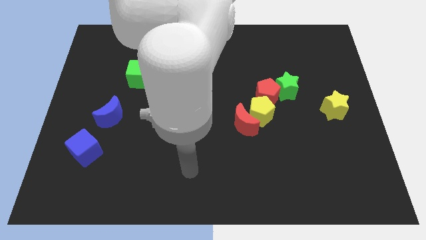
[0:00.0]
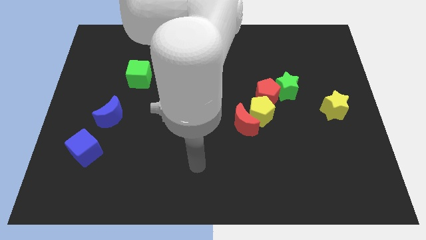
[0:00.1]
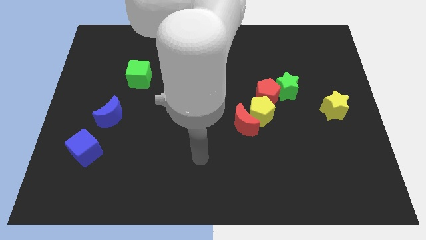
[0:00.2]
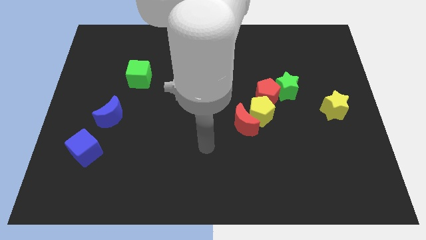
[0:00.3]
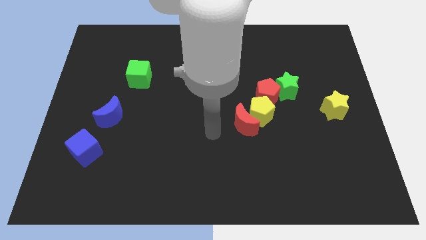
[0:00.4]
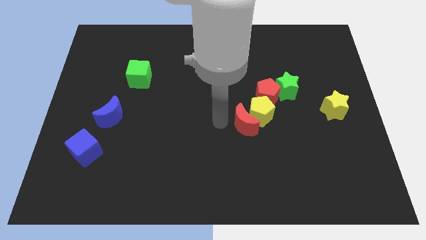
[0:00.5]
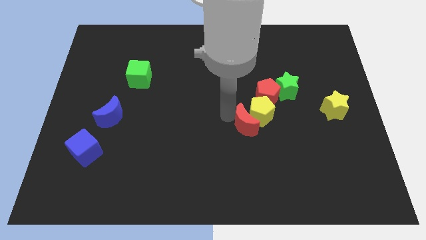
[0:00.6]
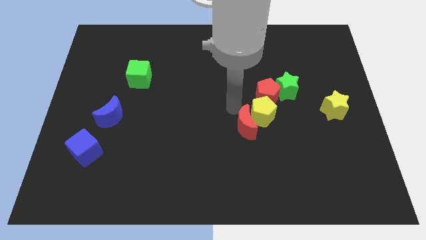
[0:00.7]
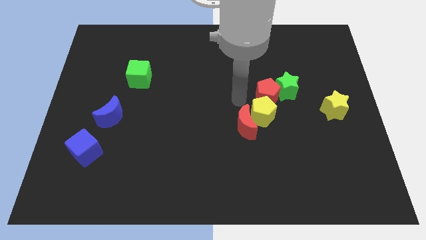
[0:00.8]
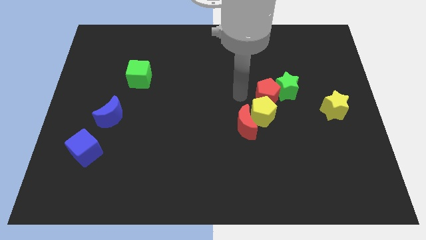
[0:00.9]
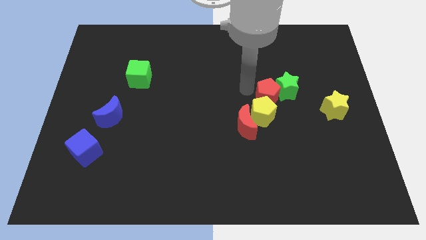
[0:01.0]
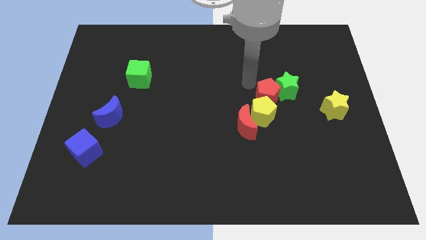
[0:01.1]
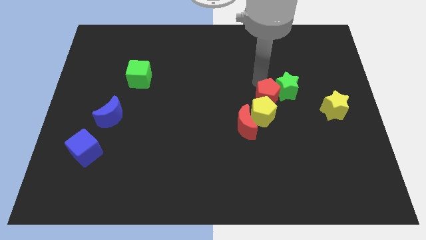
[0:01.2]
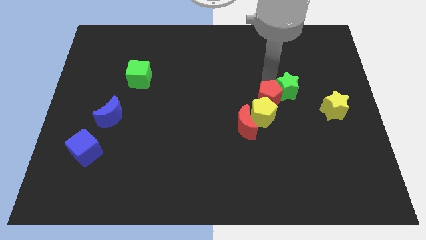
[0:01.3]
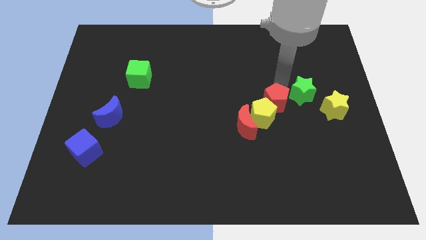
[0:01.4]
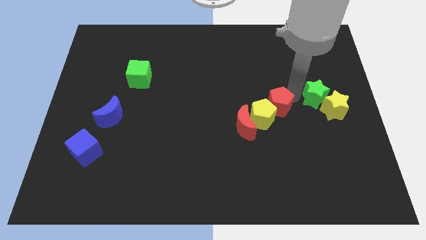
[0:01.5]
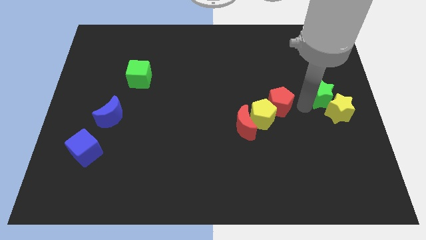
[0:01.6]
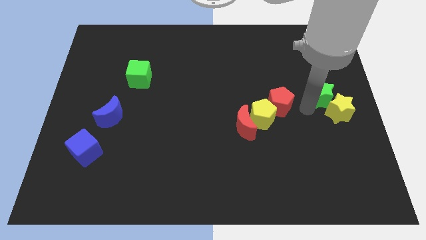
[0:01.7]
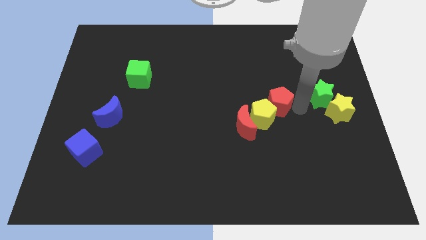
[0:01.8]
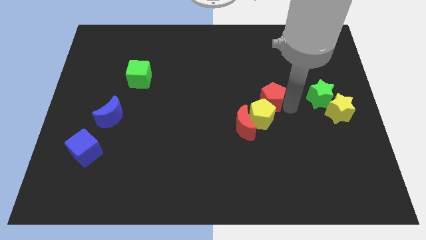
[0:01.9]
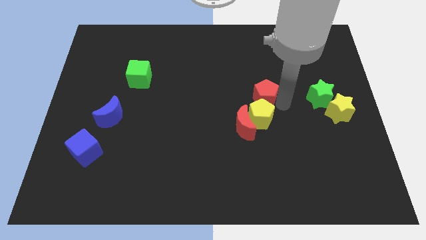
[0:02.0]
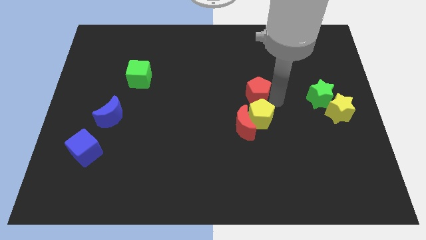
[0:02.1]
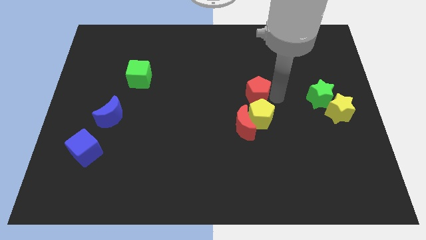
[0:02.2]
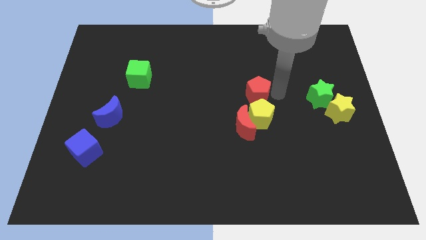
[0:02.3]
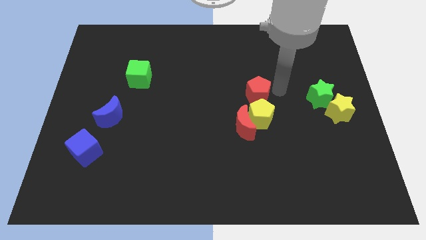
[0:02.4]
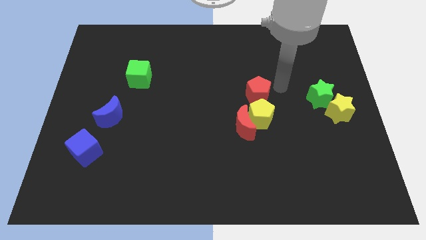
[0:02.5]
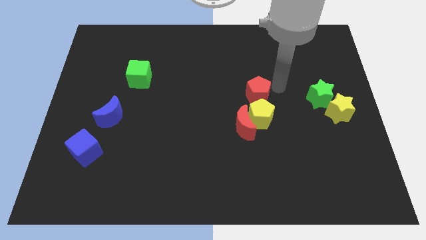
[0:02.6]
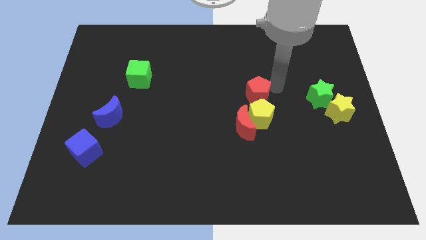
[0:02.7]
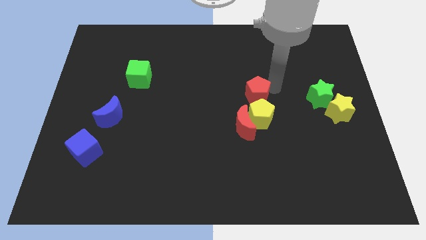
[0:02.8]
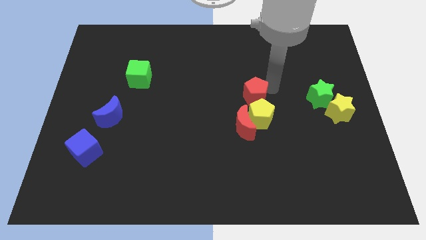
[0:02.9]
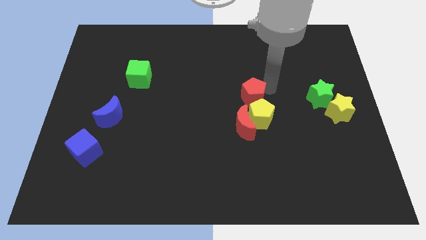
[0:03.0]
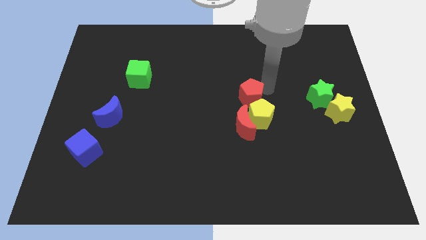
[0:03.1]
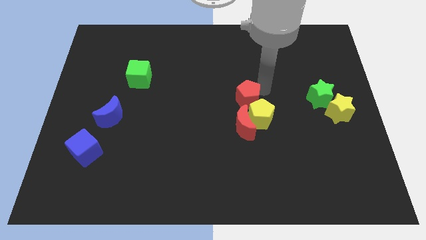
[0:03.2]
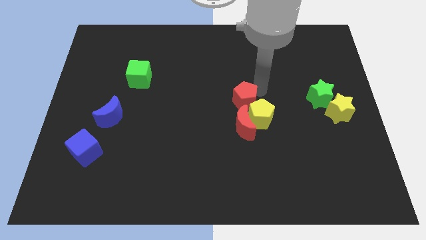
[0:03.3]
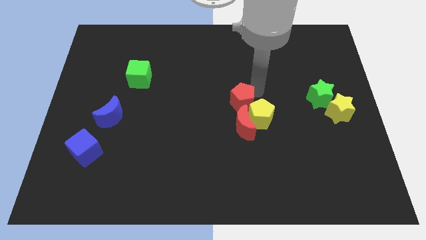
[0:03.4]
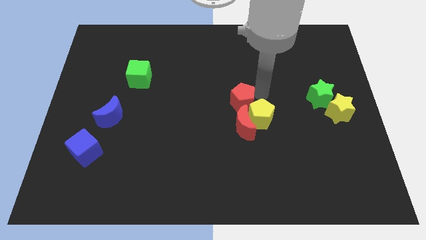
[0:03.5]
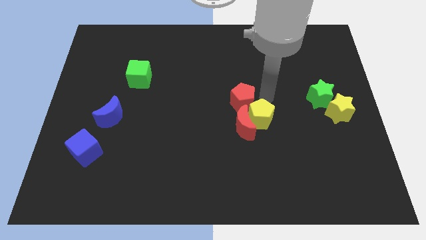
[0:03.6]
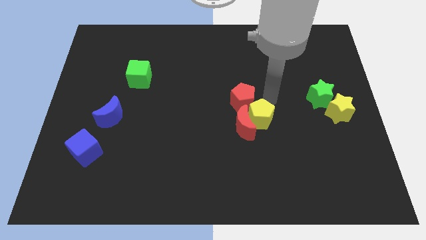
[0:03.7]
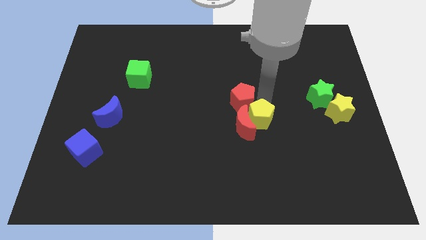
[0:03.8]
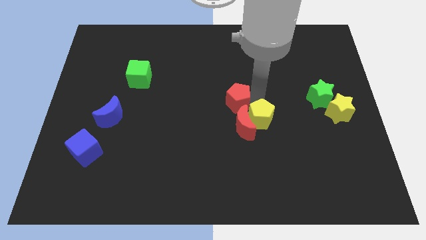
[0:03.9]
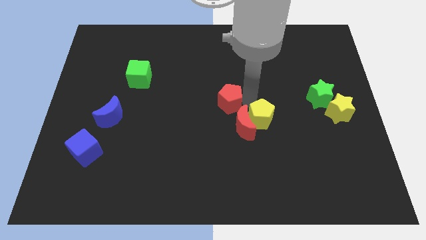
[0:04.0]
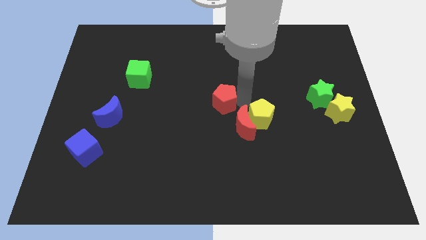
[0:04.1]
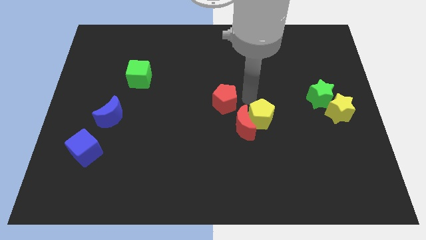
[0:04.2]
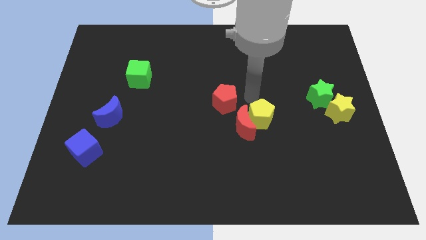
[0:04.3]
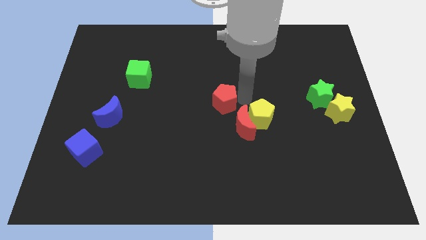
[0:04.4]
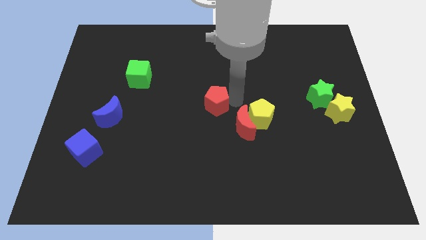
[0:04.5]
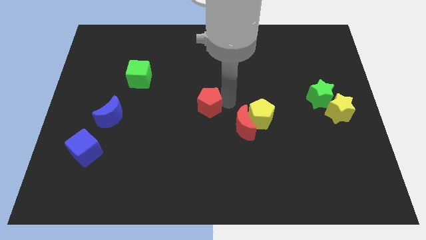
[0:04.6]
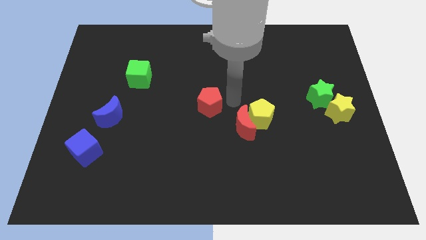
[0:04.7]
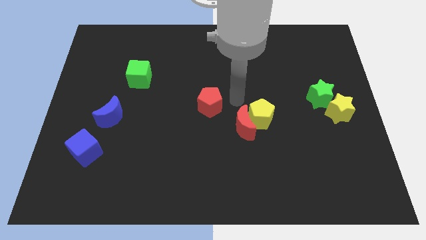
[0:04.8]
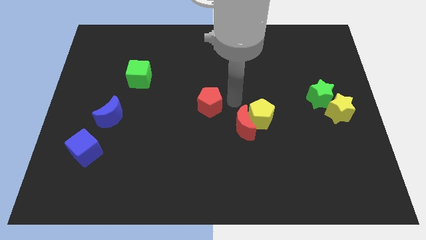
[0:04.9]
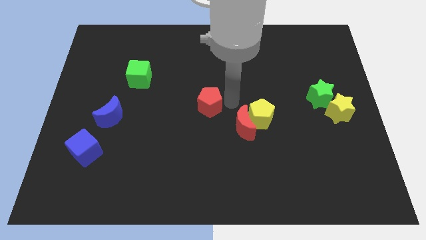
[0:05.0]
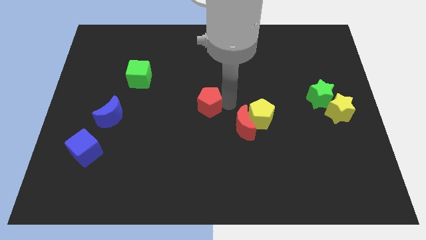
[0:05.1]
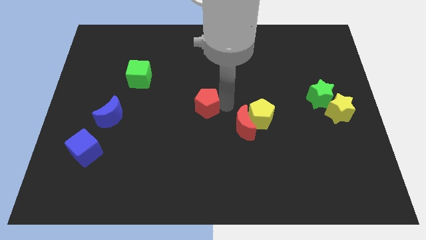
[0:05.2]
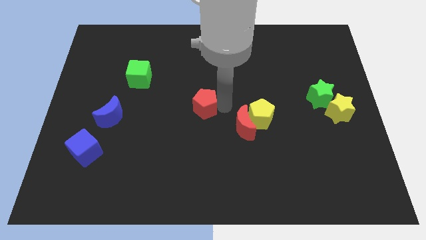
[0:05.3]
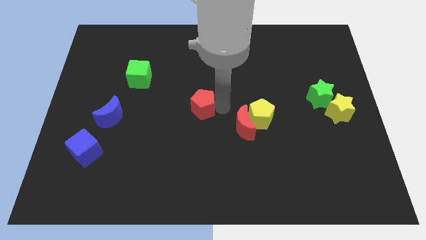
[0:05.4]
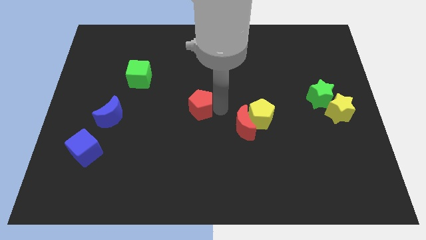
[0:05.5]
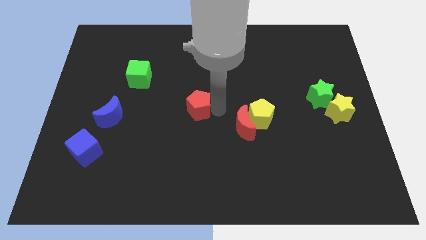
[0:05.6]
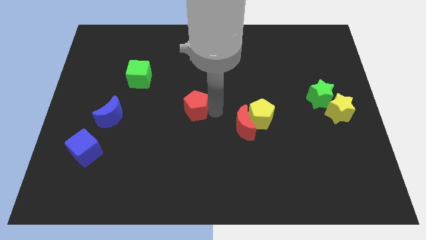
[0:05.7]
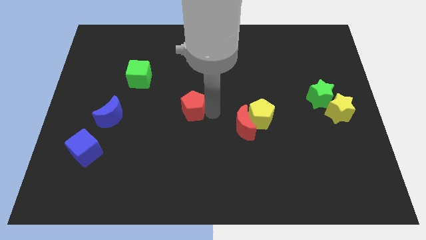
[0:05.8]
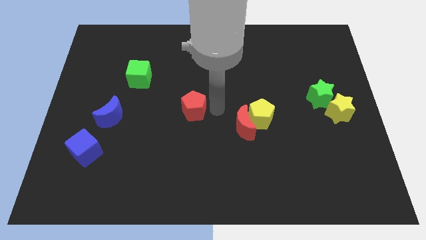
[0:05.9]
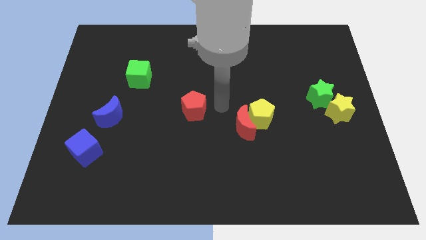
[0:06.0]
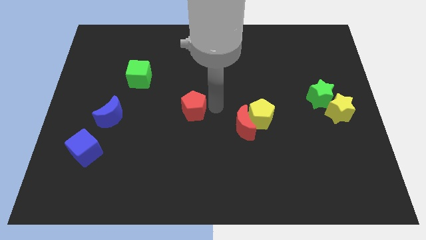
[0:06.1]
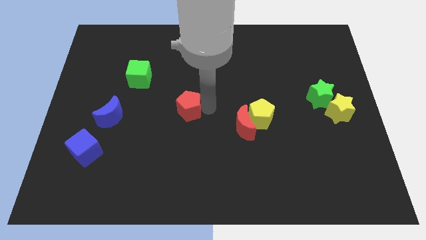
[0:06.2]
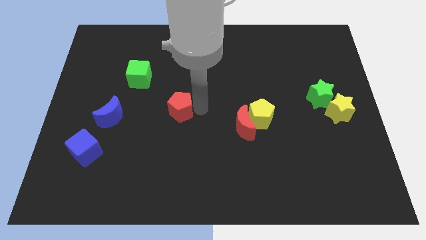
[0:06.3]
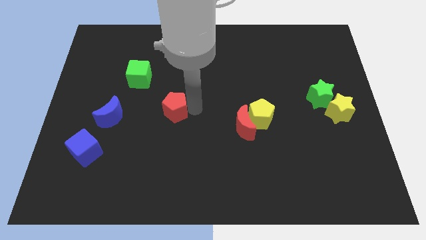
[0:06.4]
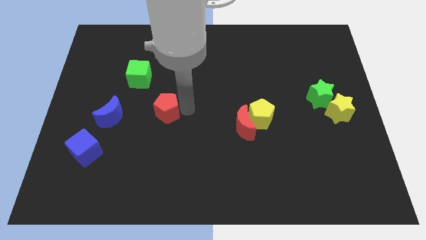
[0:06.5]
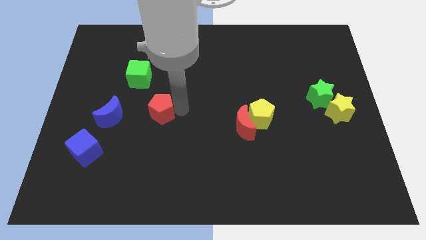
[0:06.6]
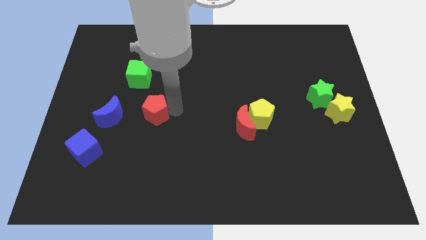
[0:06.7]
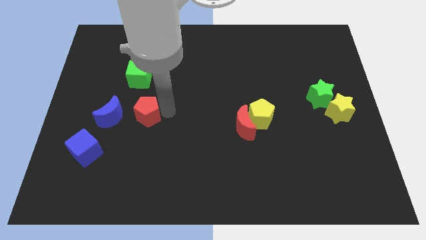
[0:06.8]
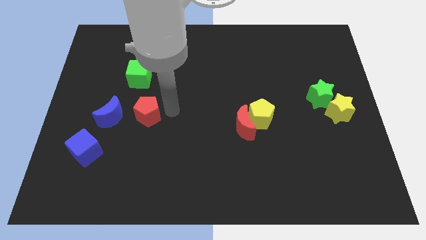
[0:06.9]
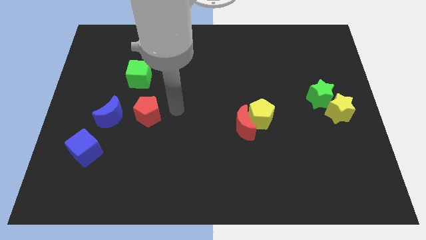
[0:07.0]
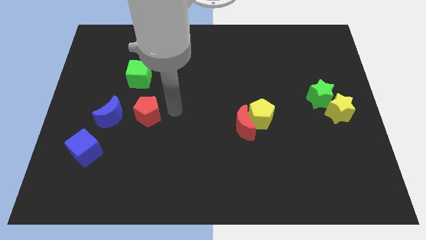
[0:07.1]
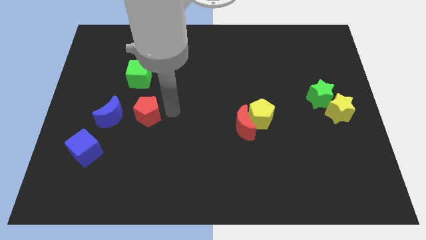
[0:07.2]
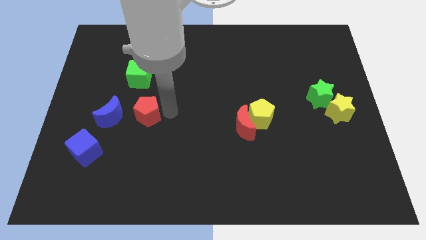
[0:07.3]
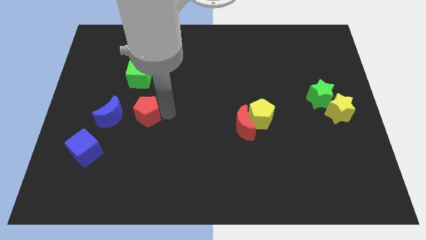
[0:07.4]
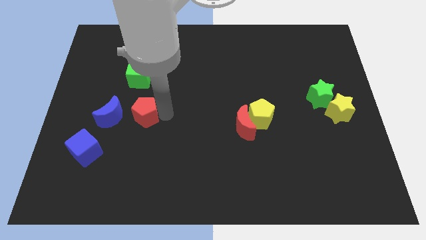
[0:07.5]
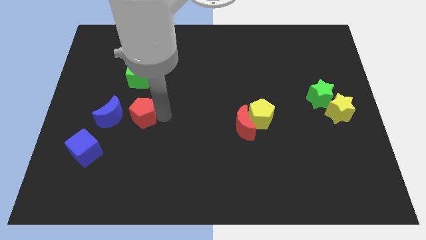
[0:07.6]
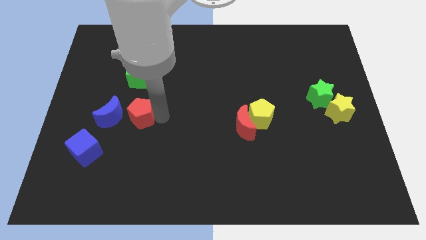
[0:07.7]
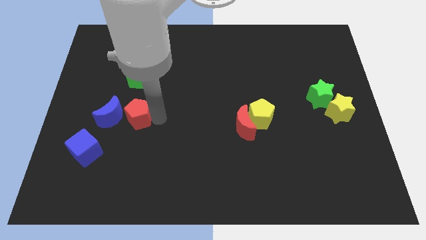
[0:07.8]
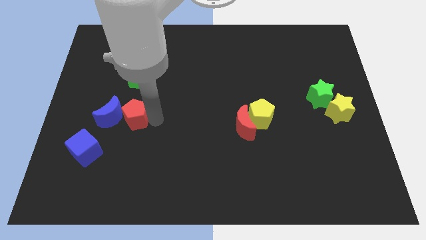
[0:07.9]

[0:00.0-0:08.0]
move the red pentagon next to the blue moon
